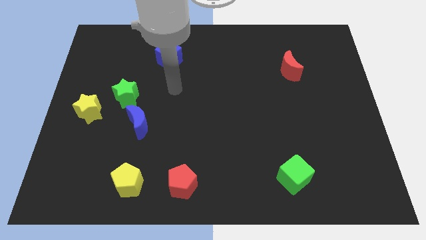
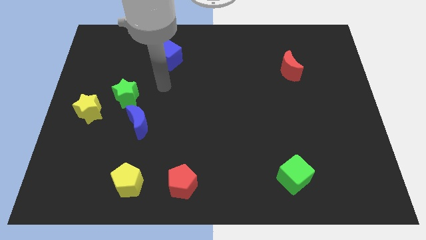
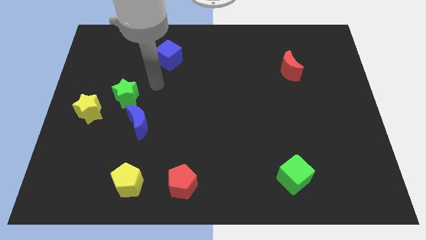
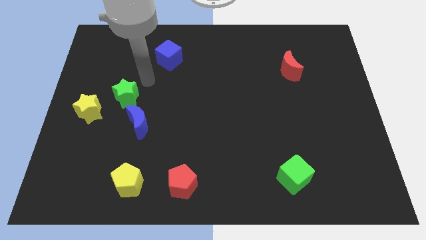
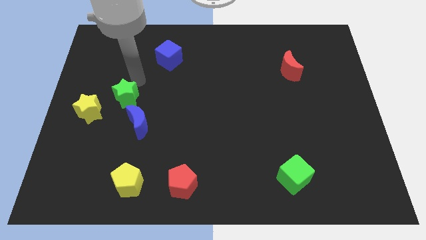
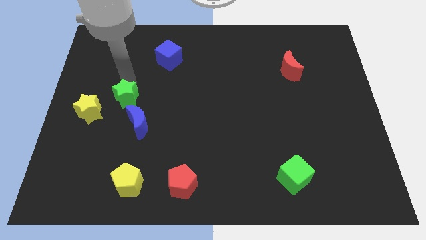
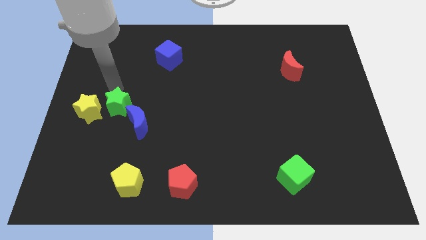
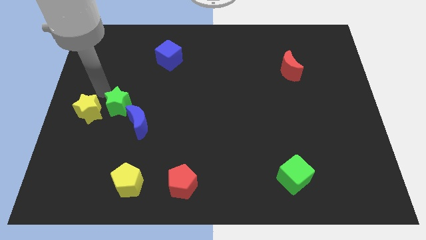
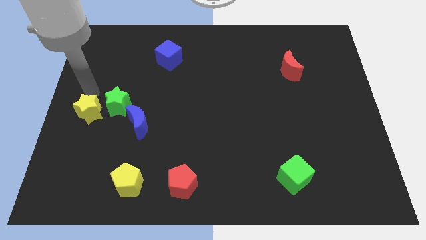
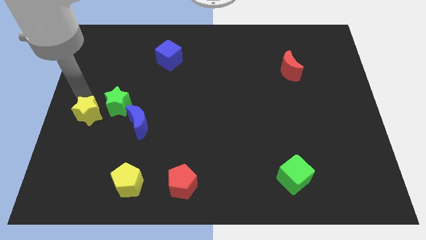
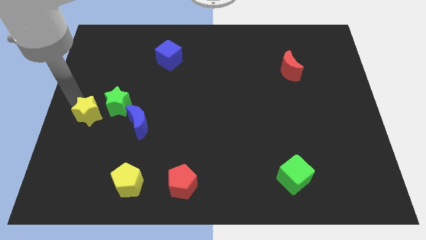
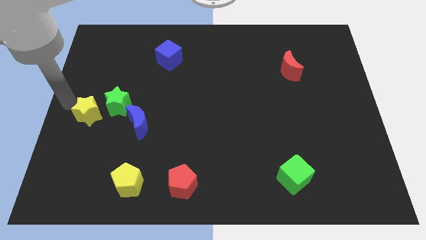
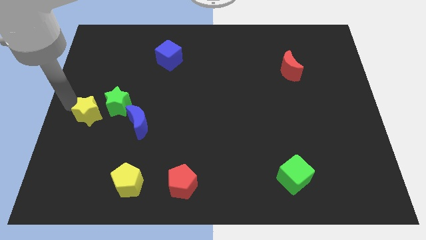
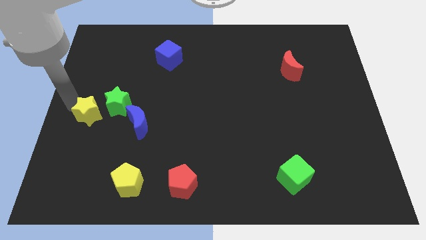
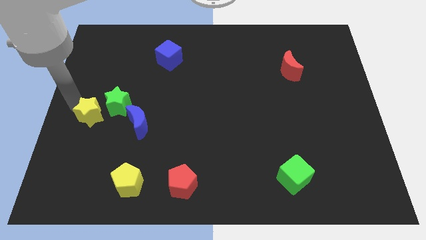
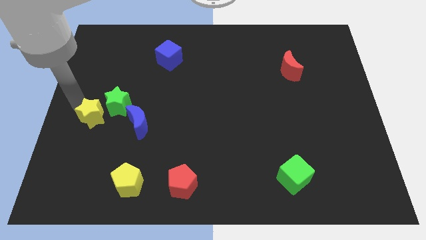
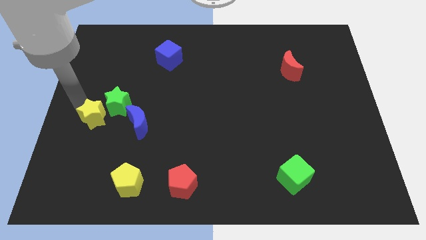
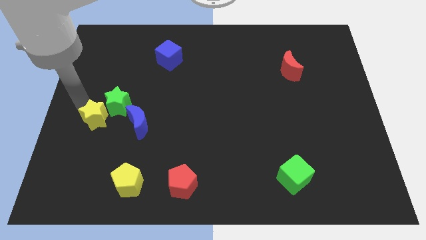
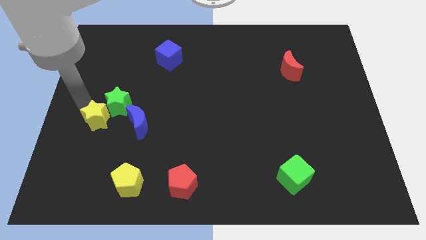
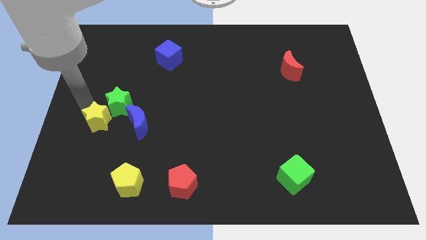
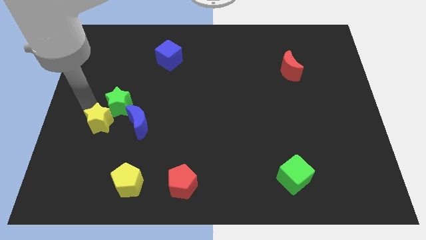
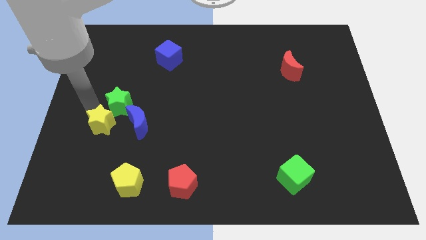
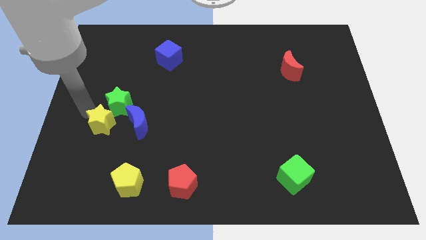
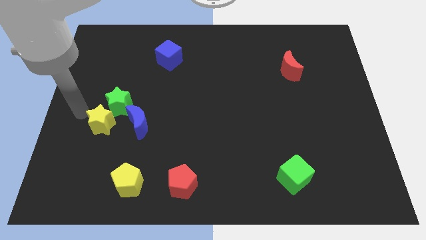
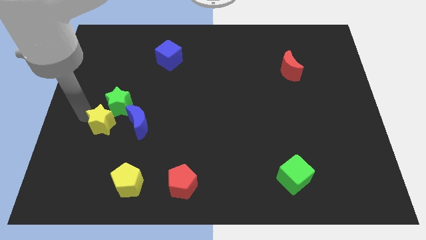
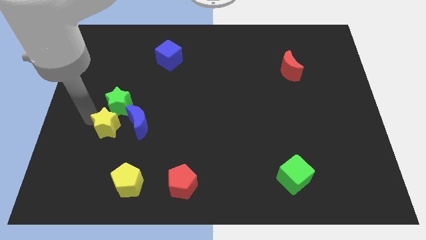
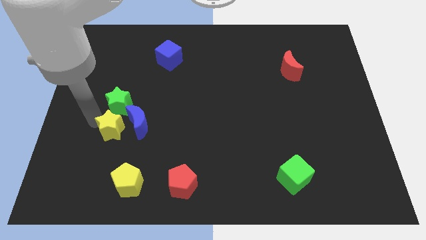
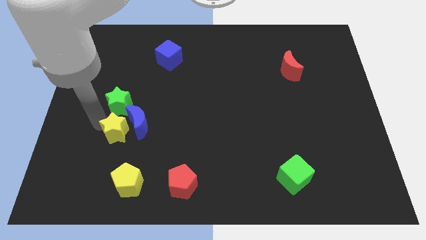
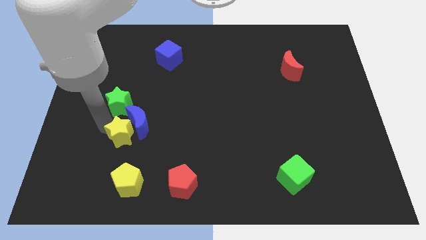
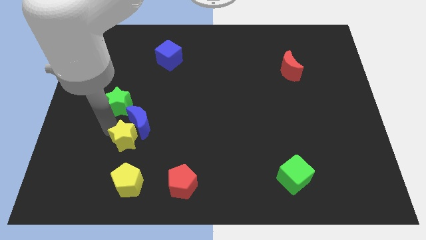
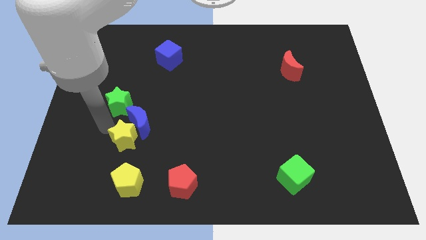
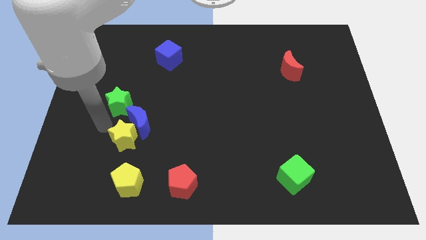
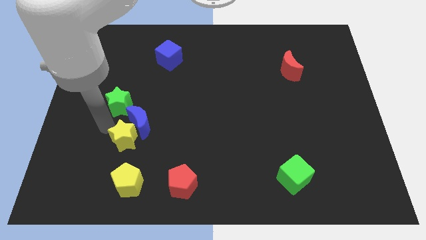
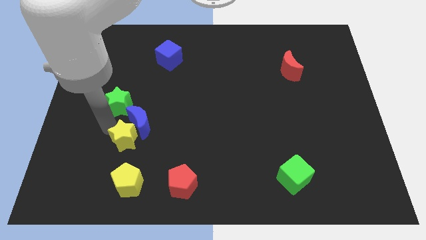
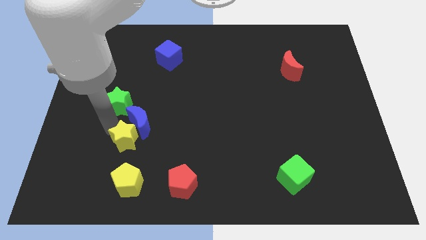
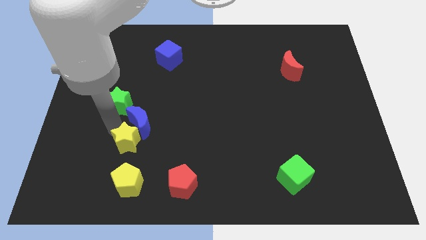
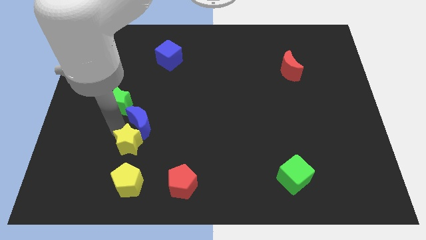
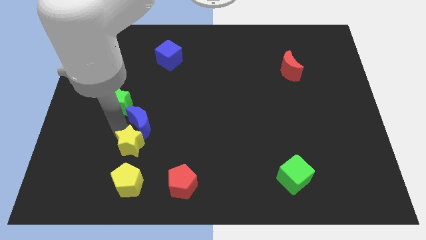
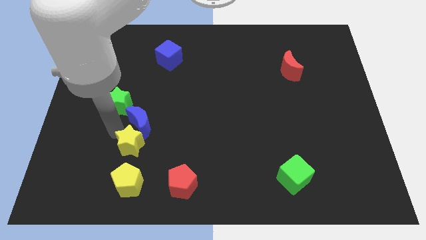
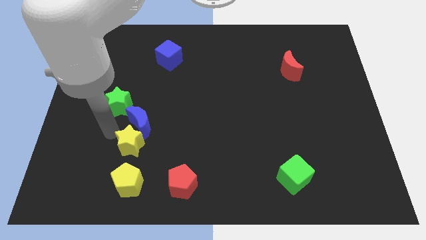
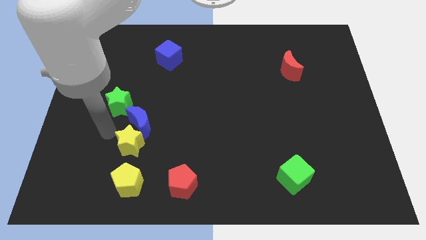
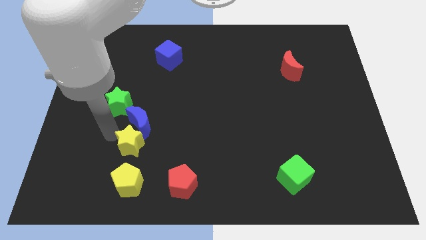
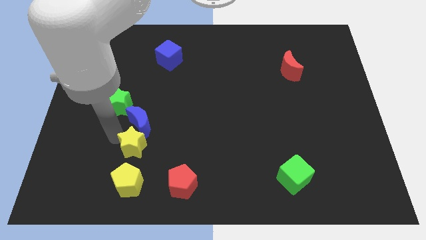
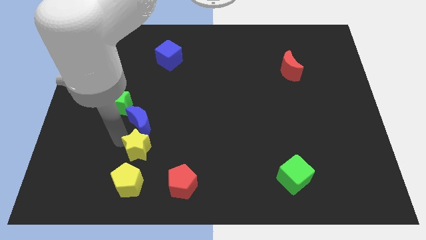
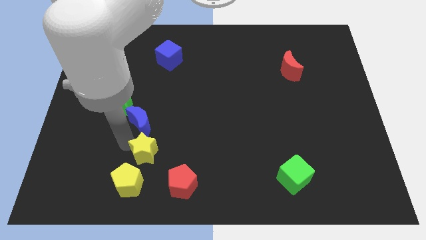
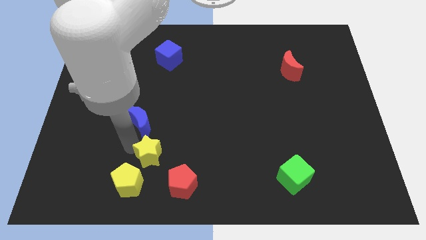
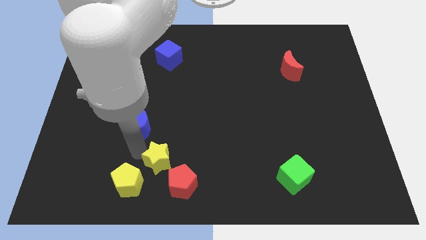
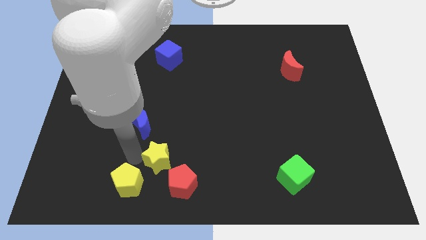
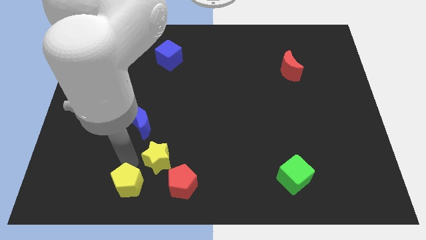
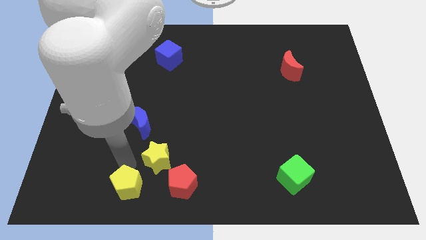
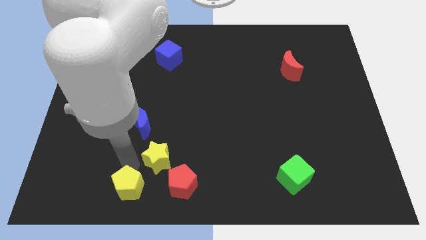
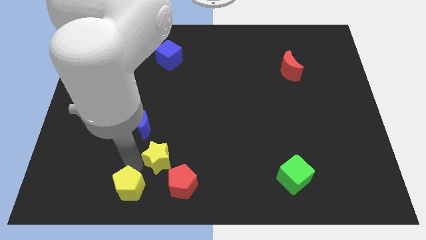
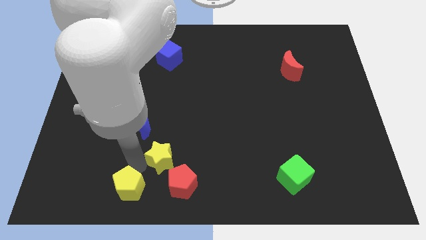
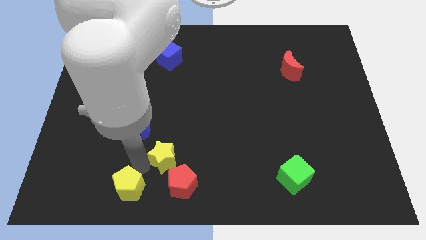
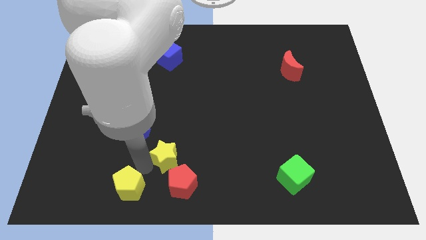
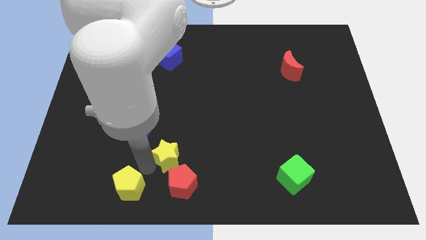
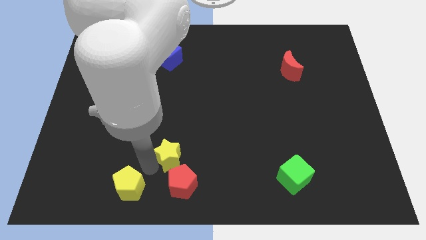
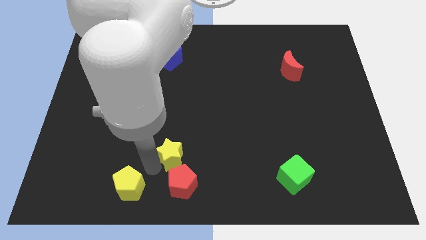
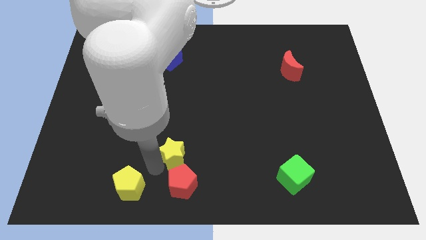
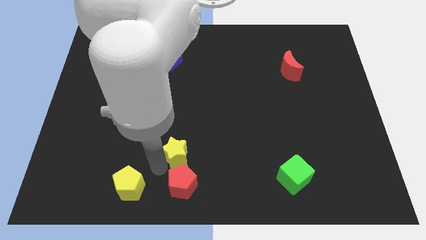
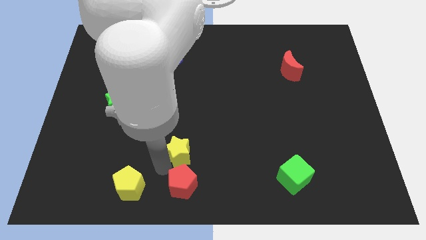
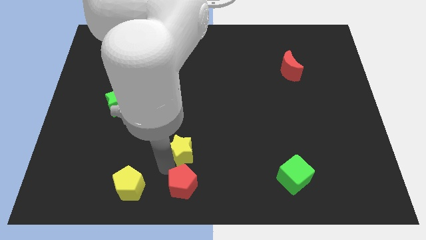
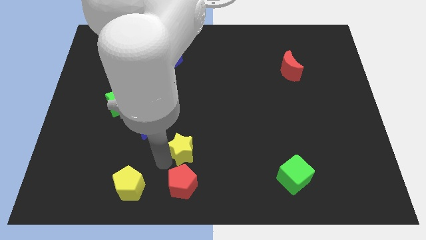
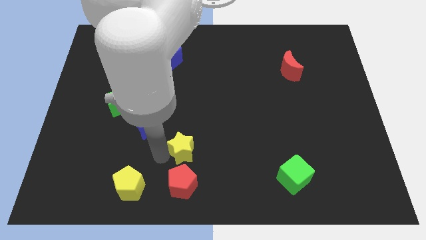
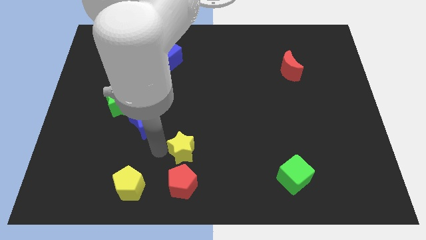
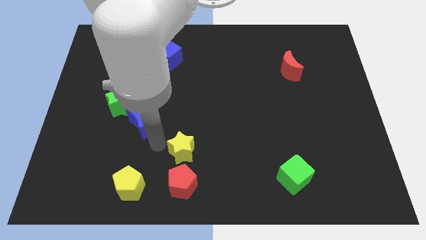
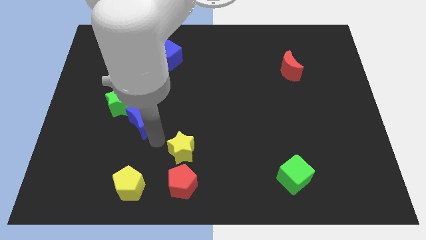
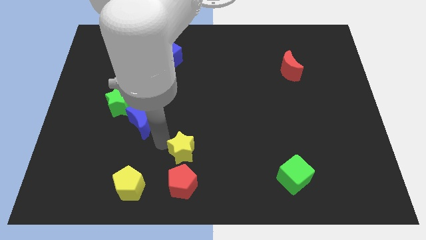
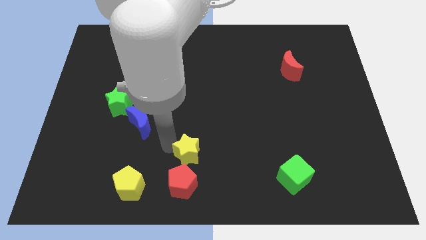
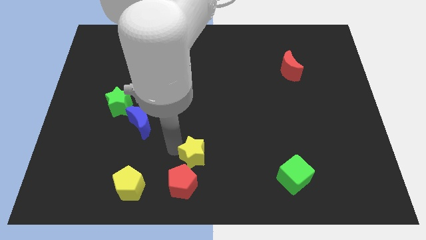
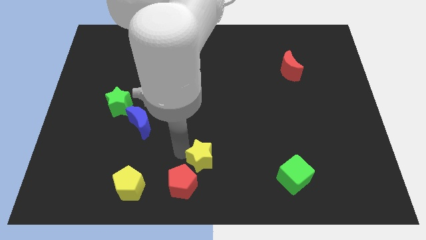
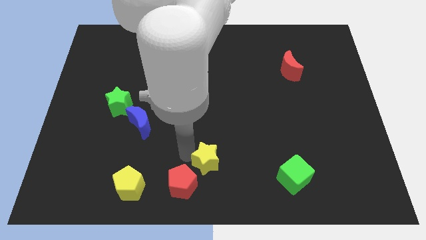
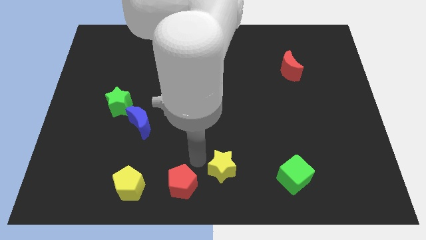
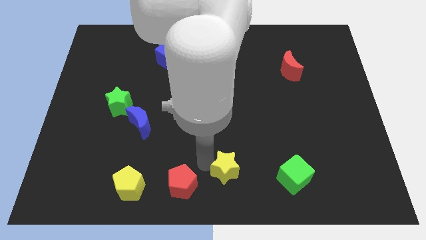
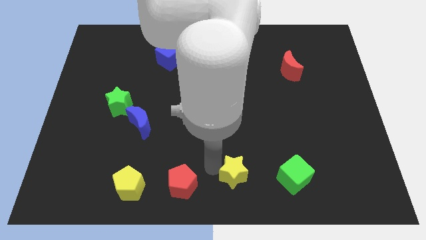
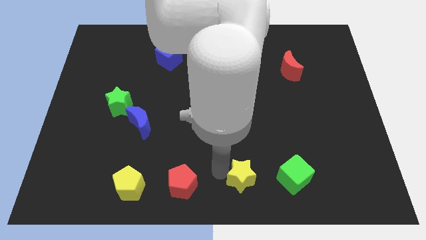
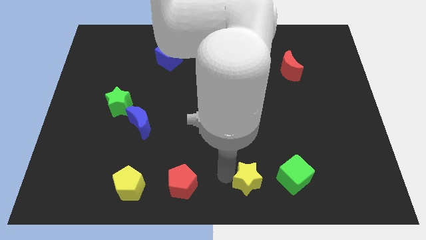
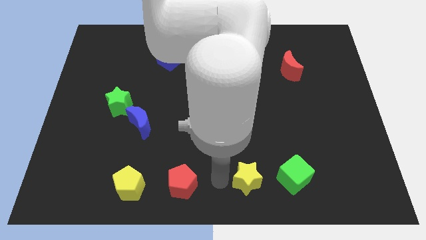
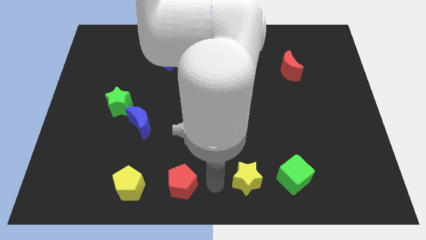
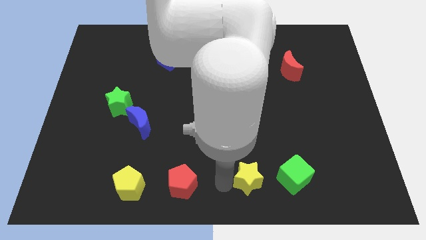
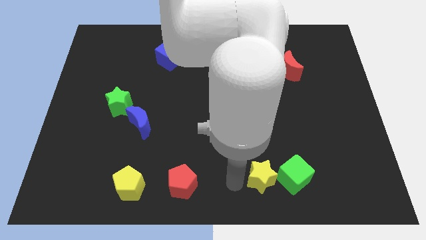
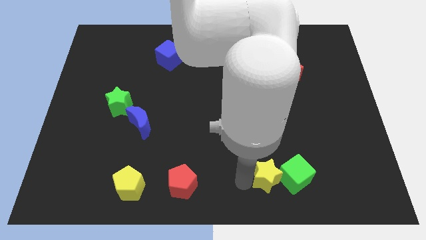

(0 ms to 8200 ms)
slide the yellow star next to the green cube
